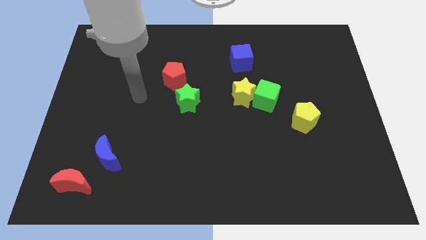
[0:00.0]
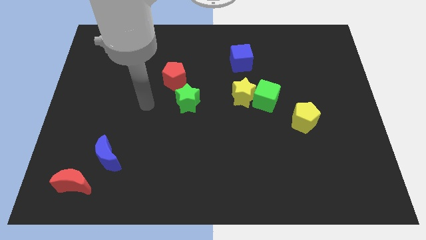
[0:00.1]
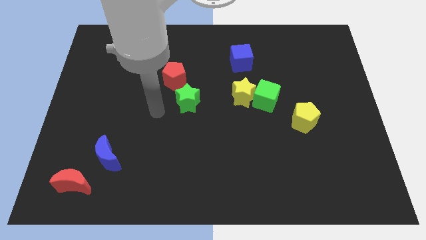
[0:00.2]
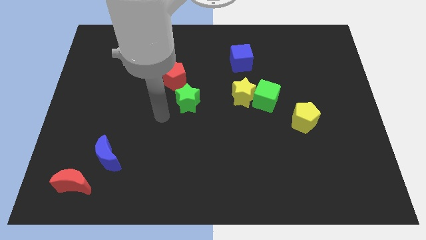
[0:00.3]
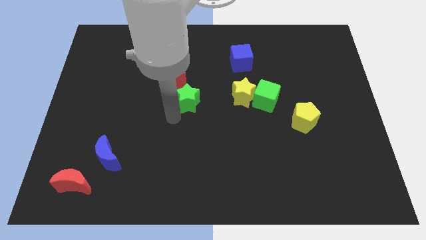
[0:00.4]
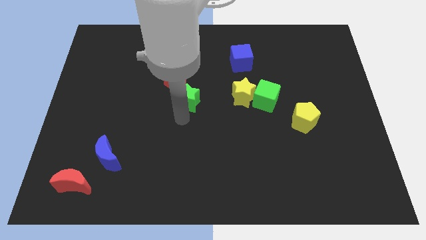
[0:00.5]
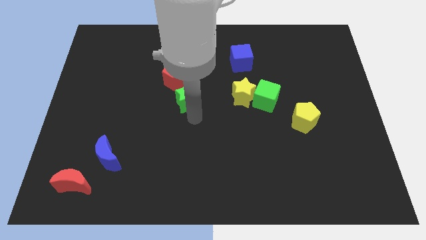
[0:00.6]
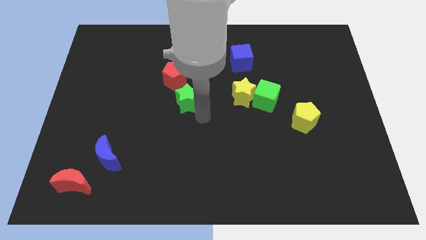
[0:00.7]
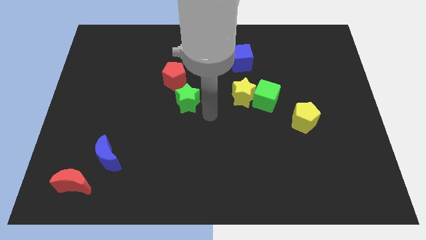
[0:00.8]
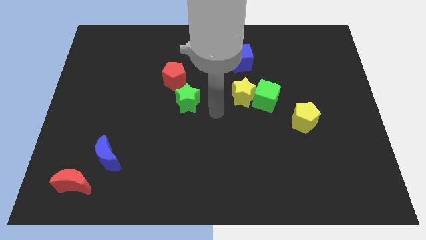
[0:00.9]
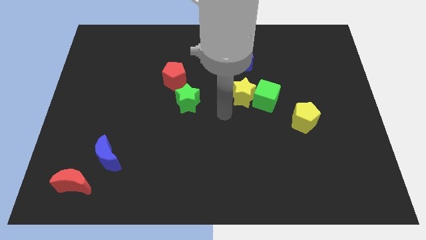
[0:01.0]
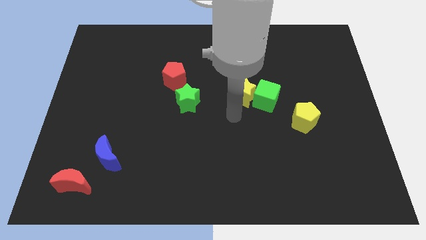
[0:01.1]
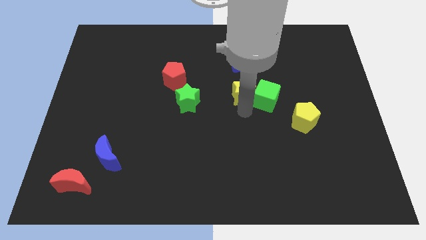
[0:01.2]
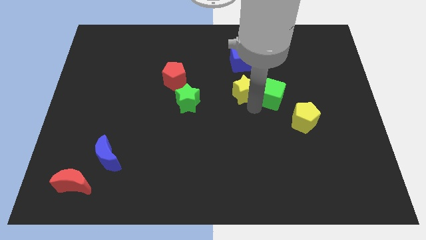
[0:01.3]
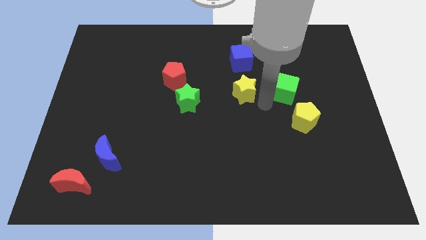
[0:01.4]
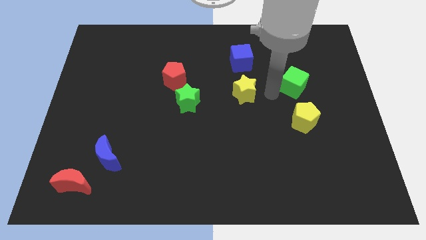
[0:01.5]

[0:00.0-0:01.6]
pull the yellow star apart from the green cube

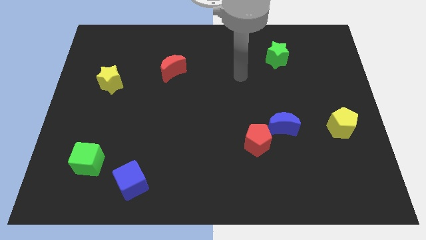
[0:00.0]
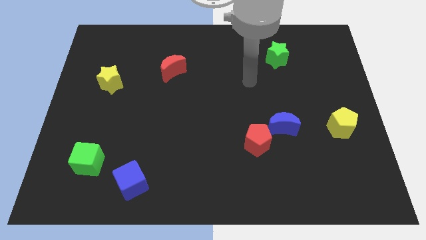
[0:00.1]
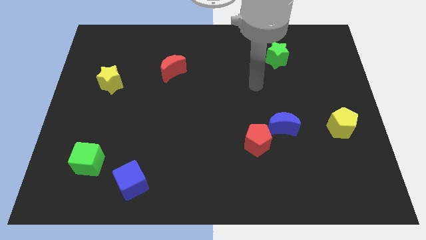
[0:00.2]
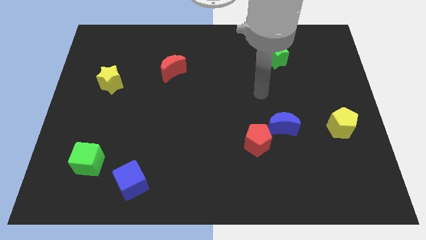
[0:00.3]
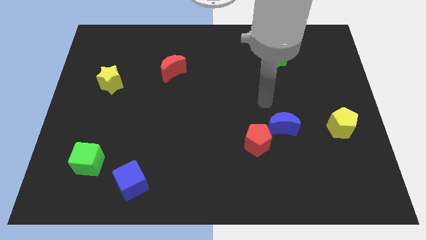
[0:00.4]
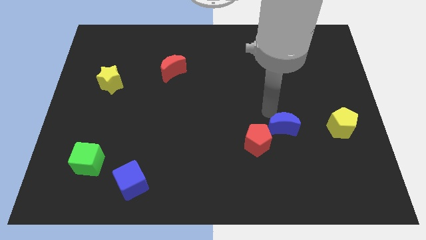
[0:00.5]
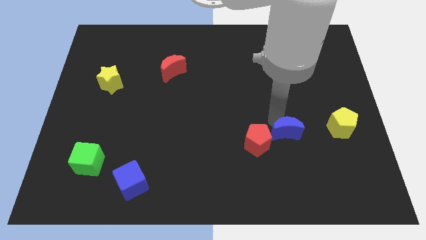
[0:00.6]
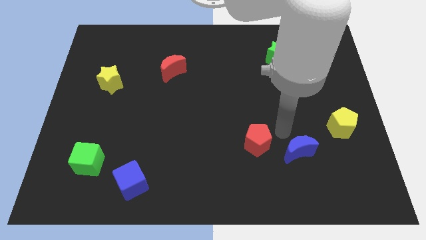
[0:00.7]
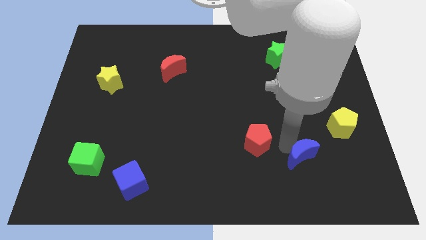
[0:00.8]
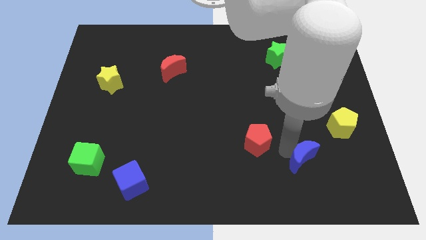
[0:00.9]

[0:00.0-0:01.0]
pull the red pentagon apart from the blue moon

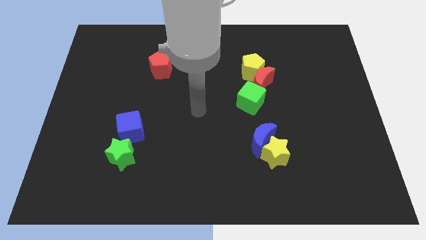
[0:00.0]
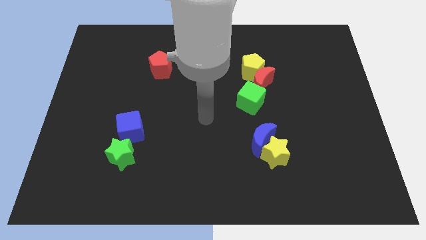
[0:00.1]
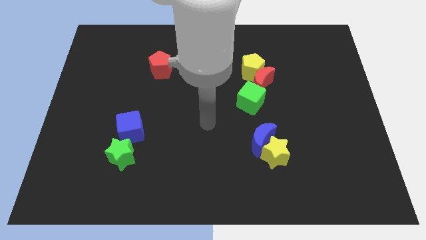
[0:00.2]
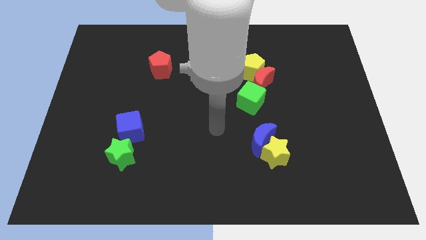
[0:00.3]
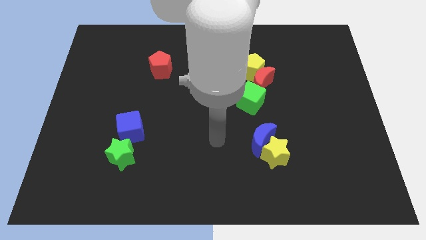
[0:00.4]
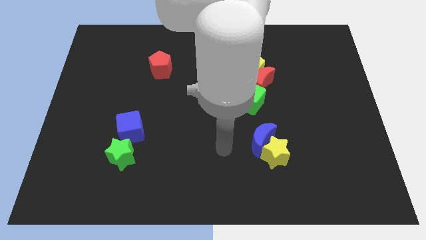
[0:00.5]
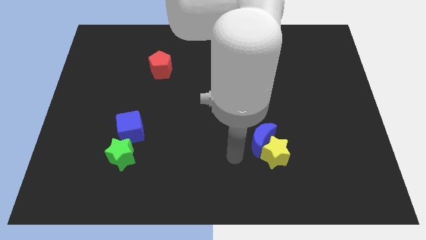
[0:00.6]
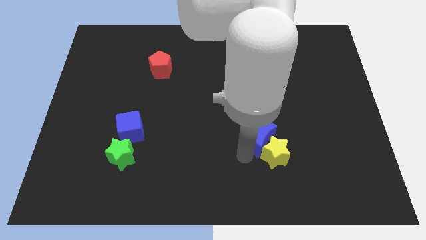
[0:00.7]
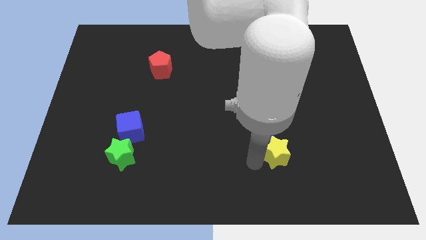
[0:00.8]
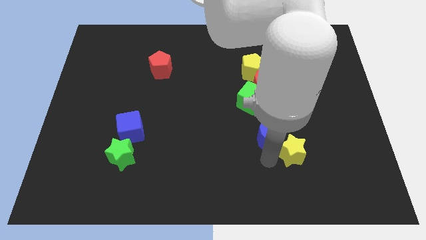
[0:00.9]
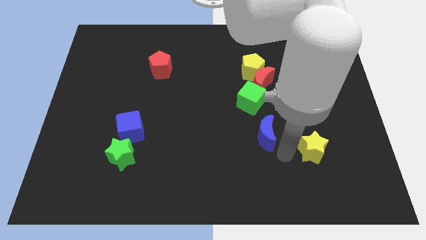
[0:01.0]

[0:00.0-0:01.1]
move the blue moon away from the yellow star

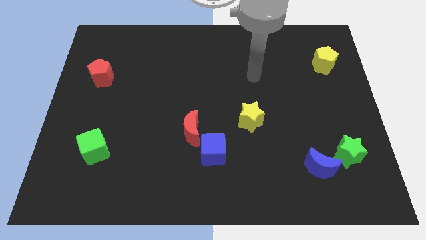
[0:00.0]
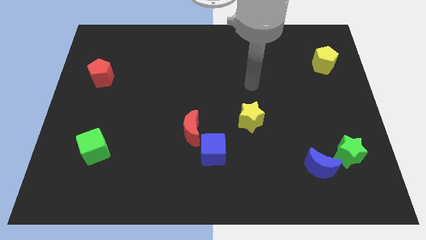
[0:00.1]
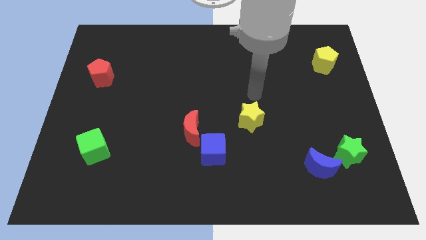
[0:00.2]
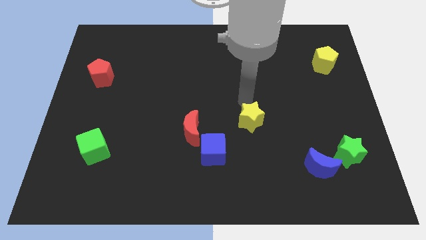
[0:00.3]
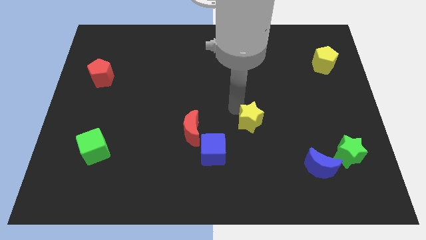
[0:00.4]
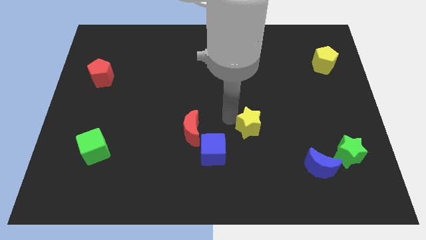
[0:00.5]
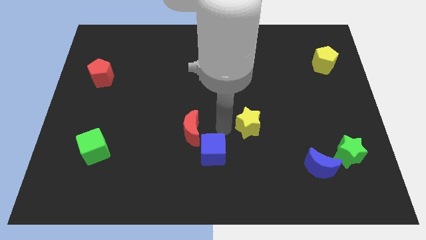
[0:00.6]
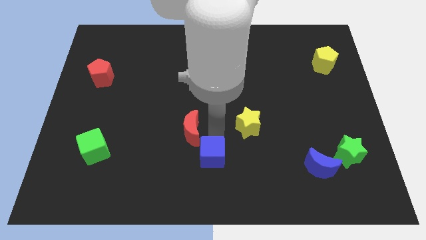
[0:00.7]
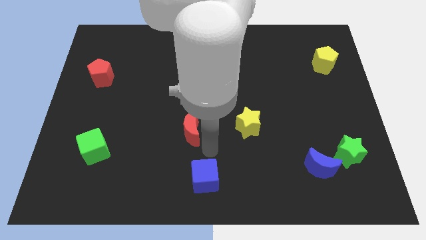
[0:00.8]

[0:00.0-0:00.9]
separate the red moon from the blue cube

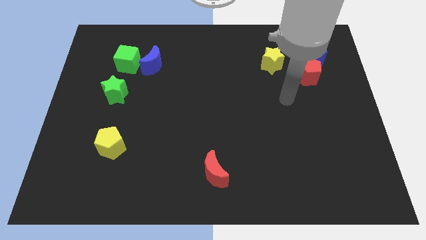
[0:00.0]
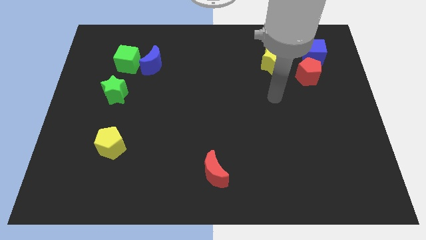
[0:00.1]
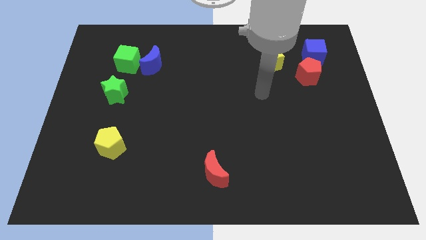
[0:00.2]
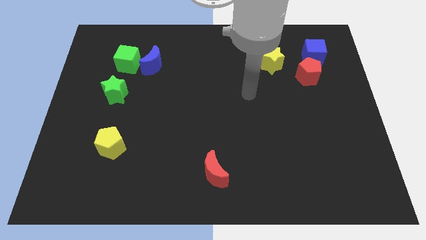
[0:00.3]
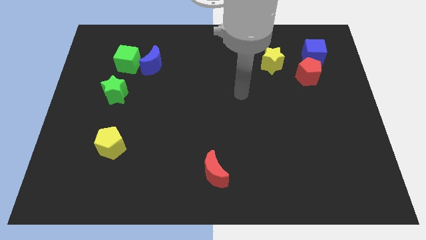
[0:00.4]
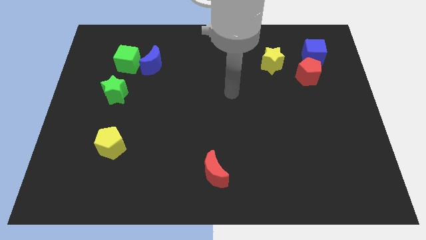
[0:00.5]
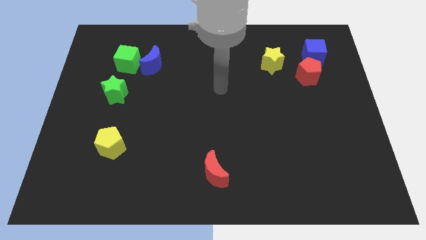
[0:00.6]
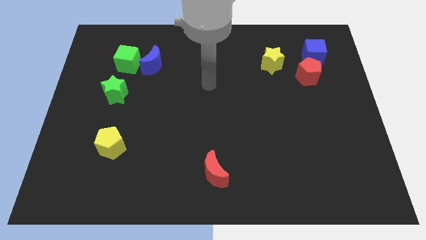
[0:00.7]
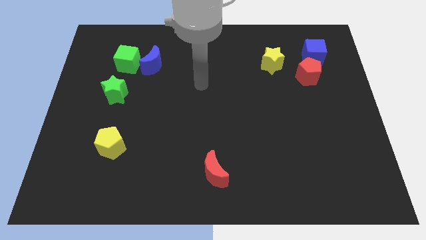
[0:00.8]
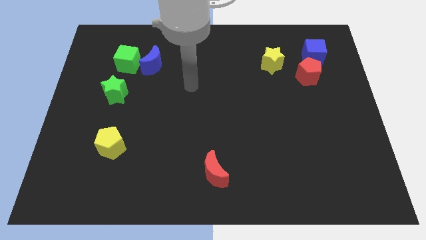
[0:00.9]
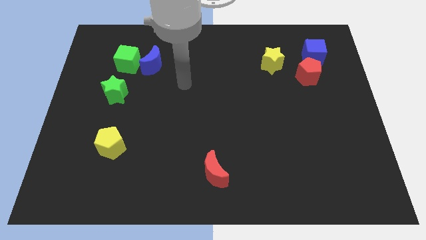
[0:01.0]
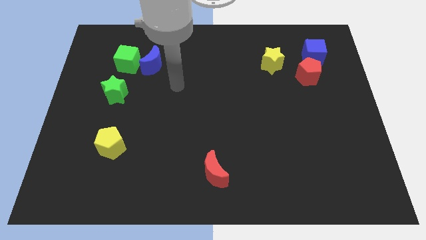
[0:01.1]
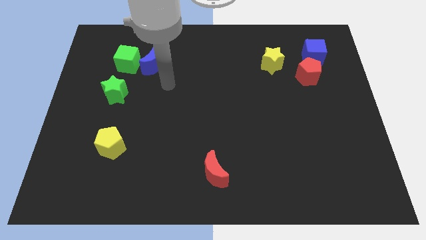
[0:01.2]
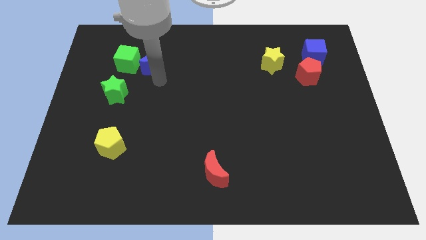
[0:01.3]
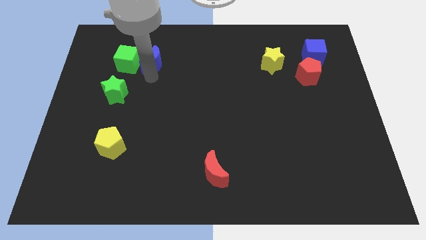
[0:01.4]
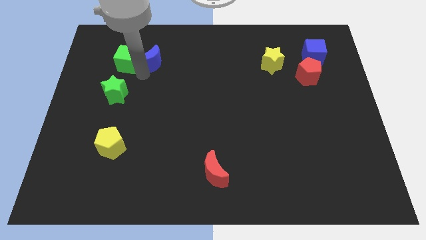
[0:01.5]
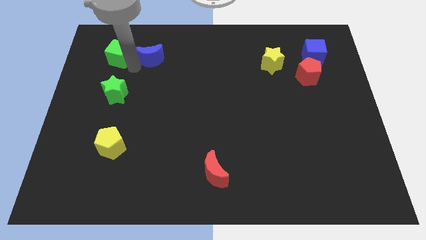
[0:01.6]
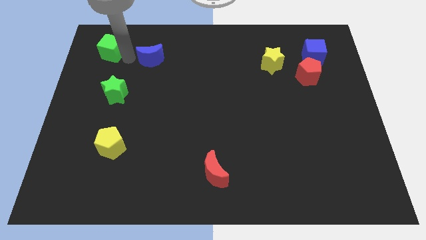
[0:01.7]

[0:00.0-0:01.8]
pull the blue moon apart from the green cube

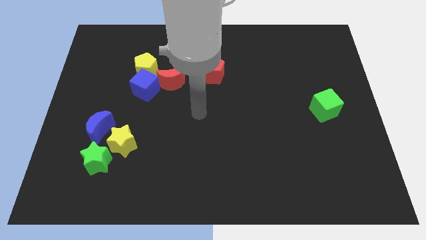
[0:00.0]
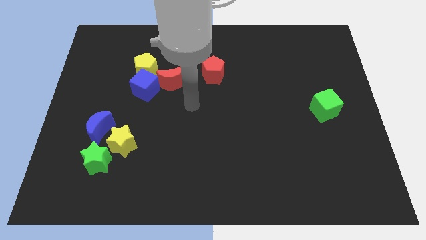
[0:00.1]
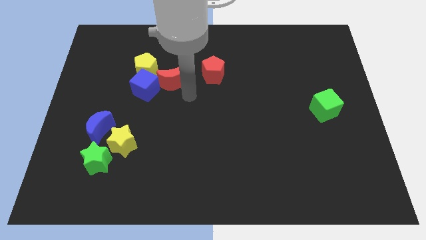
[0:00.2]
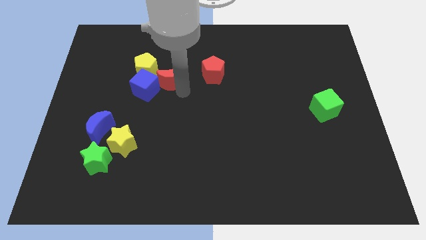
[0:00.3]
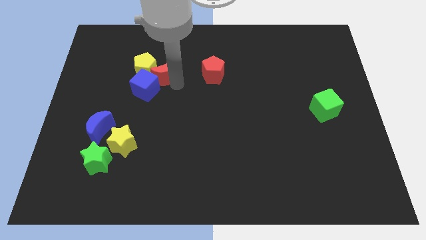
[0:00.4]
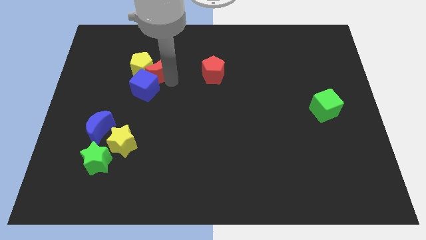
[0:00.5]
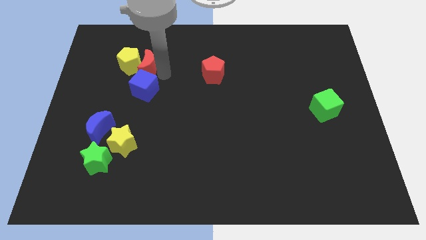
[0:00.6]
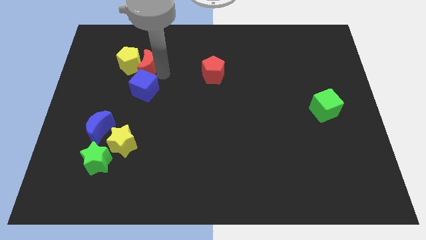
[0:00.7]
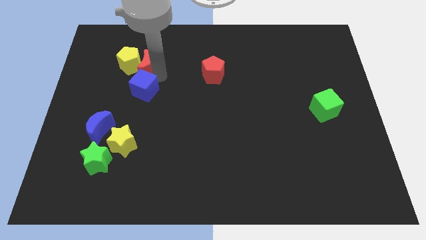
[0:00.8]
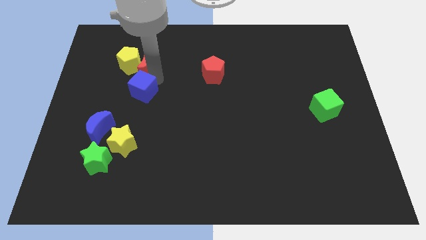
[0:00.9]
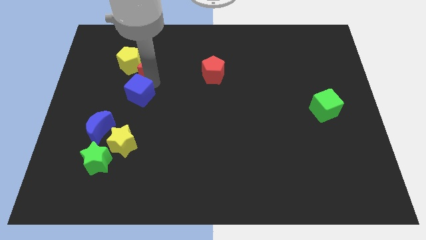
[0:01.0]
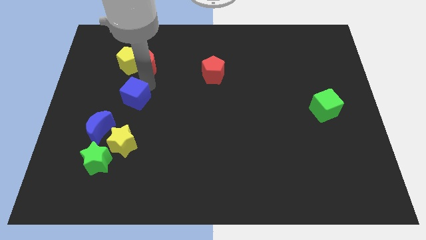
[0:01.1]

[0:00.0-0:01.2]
separate the blue cube from the yellow pentagon and red moon

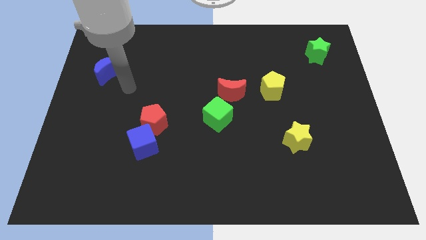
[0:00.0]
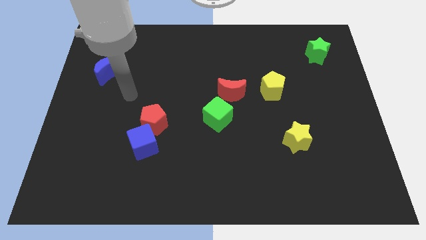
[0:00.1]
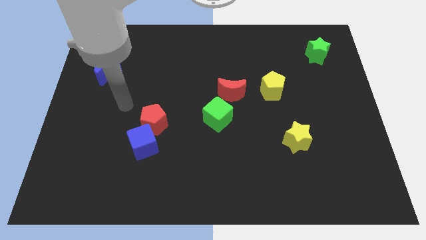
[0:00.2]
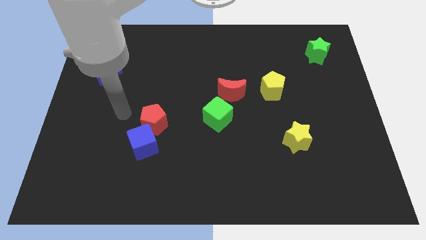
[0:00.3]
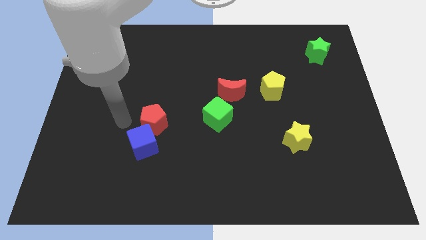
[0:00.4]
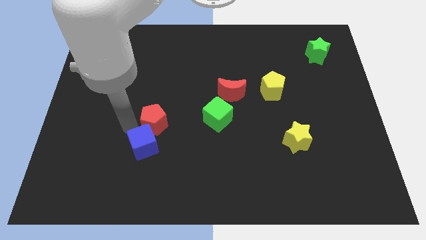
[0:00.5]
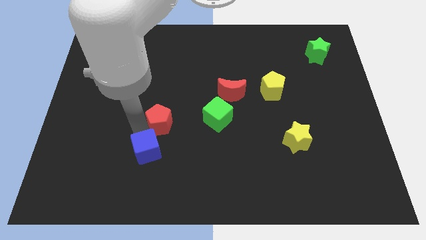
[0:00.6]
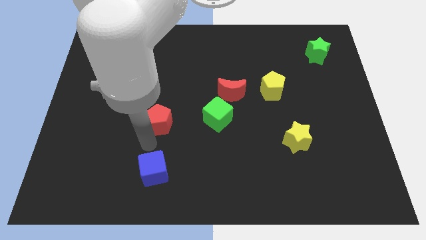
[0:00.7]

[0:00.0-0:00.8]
pull the red pentagon apart from the blue cube

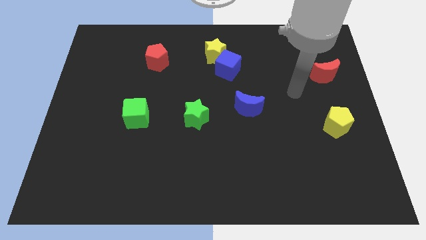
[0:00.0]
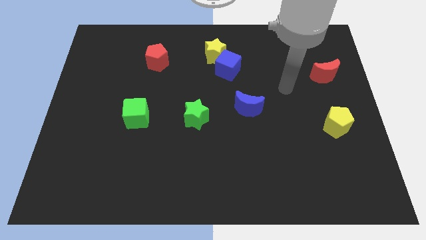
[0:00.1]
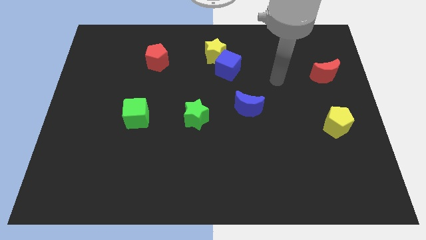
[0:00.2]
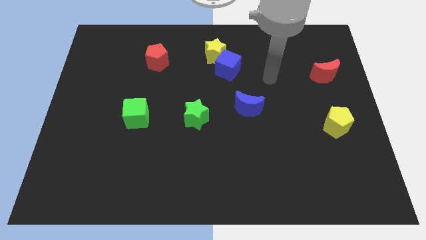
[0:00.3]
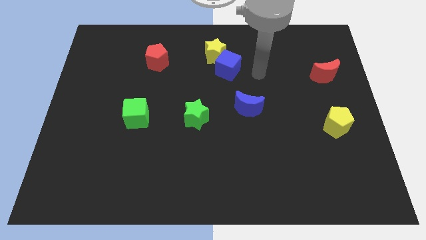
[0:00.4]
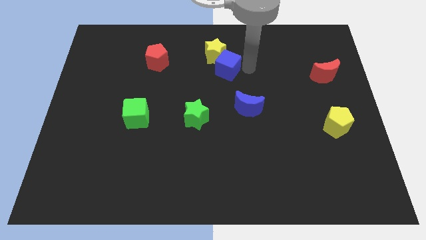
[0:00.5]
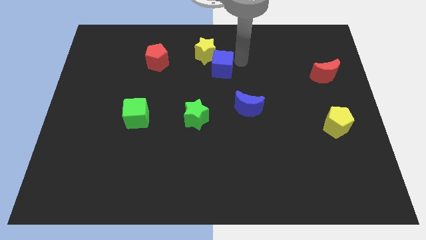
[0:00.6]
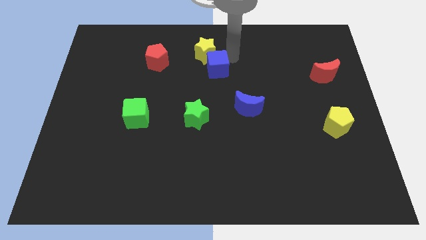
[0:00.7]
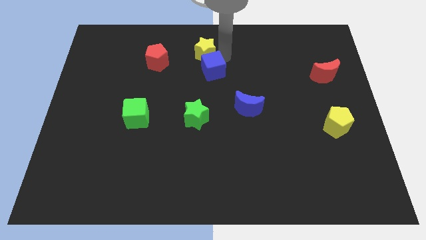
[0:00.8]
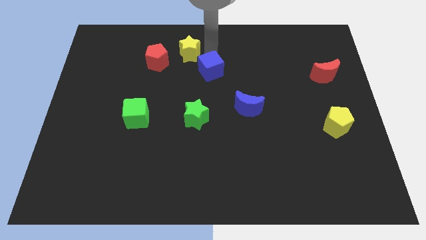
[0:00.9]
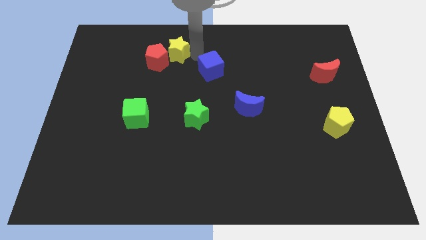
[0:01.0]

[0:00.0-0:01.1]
pull the blue cube apart from the yellow star
